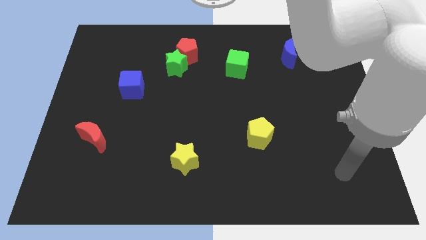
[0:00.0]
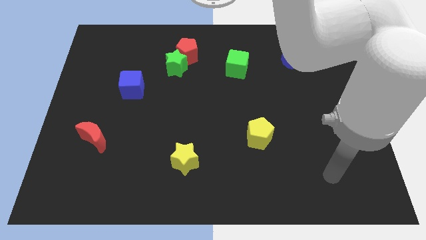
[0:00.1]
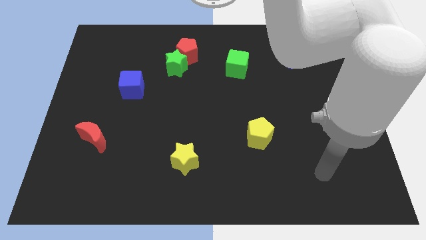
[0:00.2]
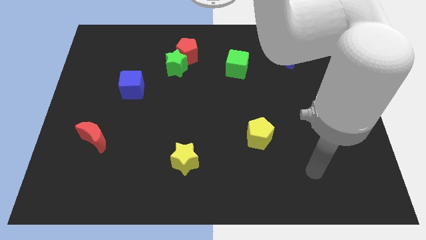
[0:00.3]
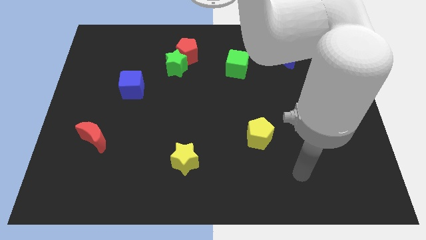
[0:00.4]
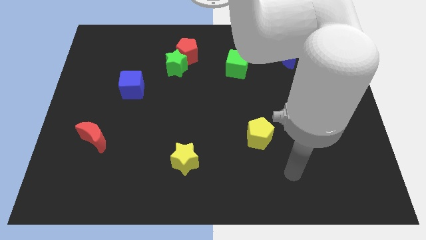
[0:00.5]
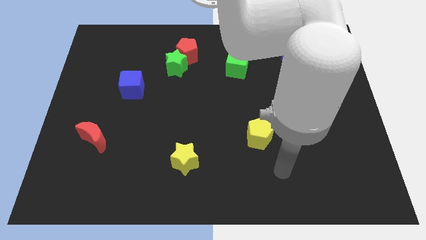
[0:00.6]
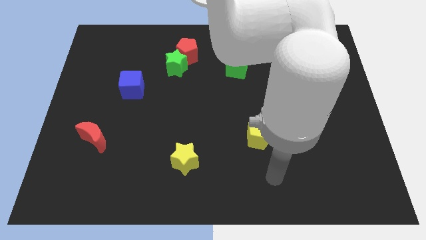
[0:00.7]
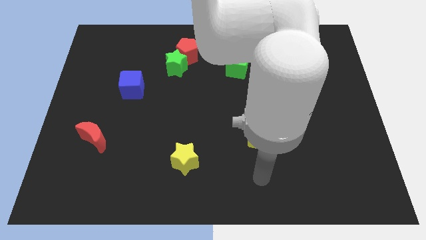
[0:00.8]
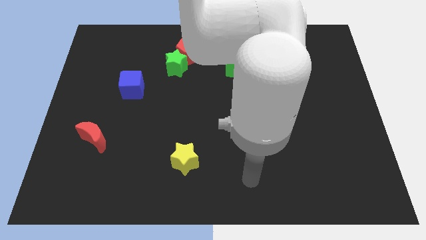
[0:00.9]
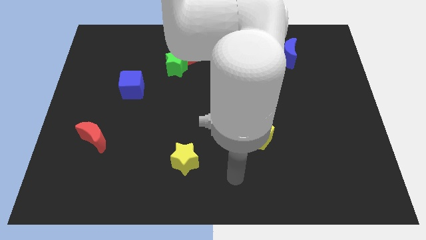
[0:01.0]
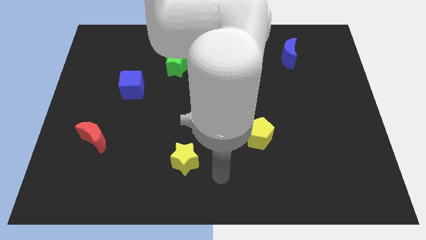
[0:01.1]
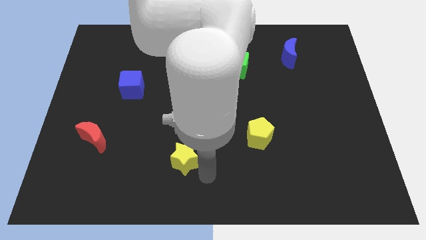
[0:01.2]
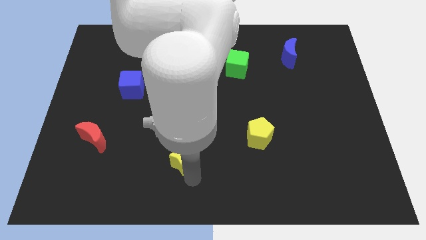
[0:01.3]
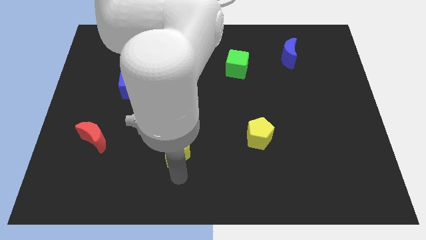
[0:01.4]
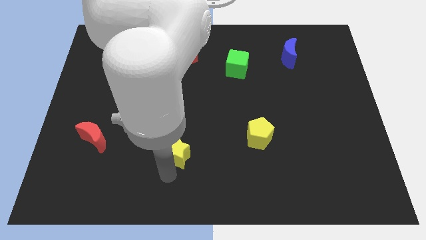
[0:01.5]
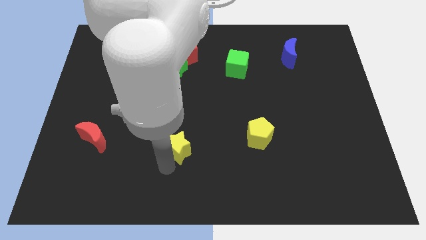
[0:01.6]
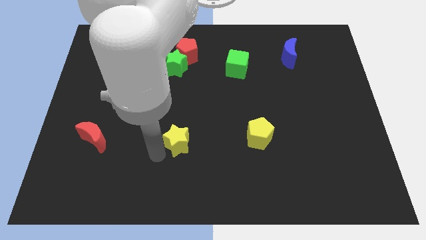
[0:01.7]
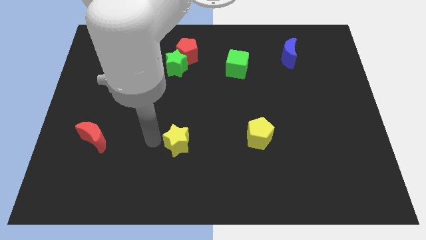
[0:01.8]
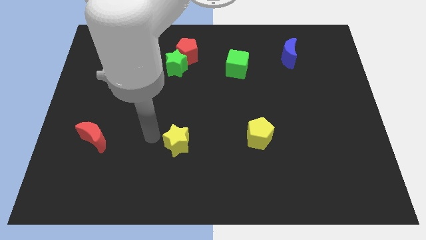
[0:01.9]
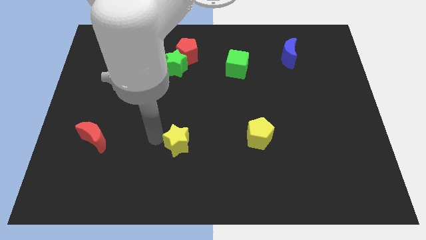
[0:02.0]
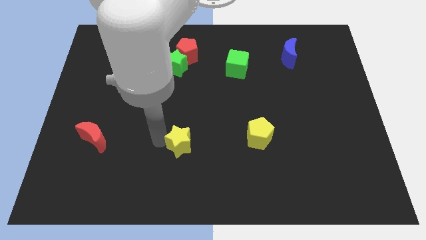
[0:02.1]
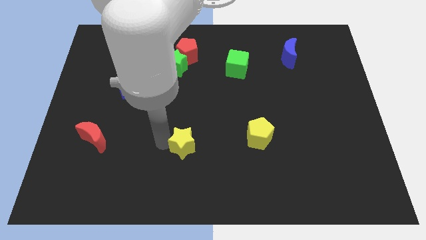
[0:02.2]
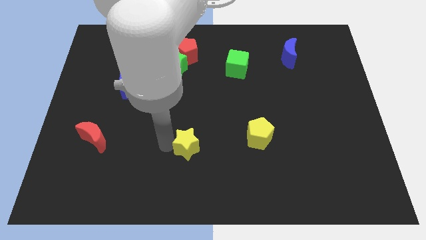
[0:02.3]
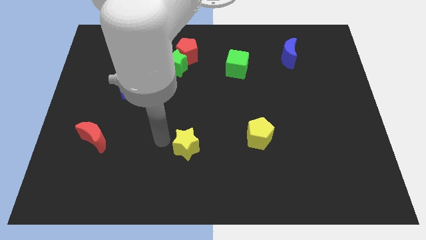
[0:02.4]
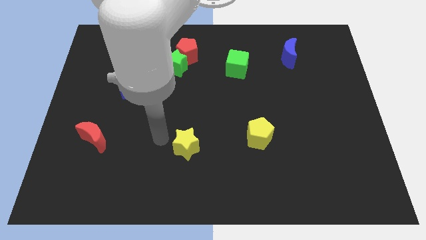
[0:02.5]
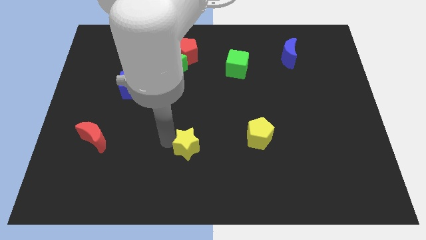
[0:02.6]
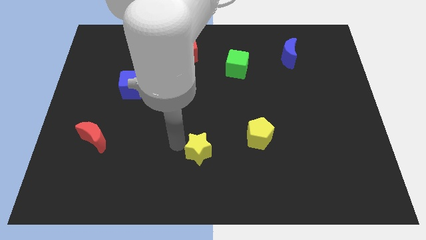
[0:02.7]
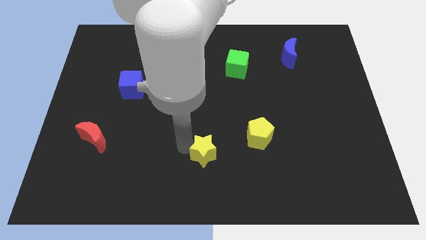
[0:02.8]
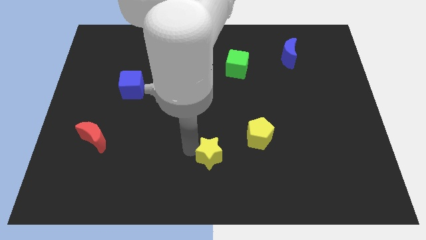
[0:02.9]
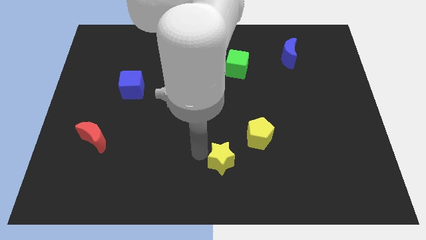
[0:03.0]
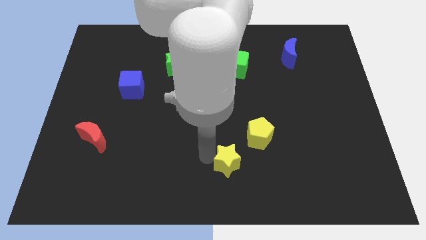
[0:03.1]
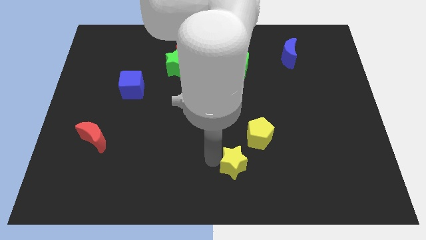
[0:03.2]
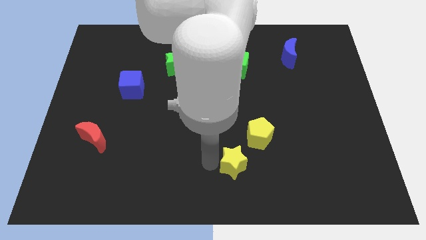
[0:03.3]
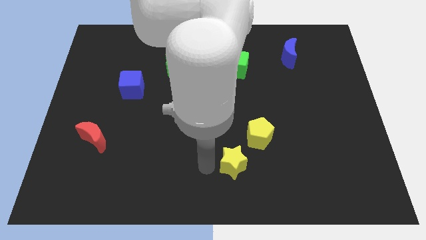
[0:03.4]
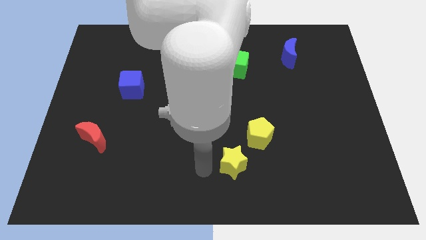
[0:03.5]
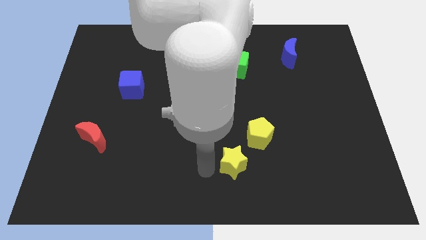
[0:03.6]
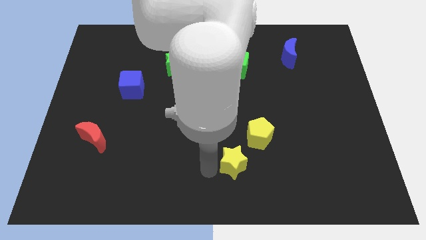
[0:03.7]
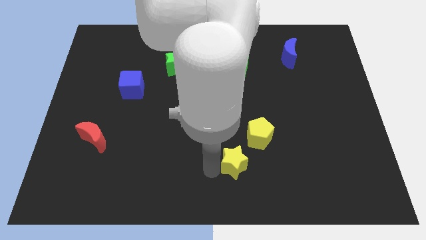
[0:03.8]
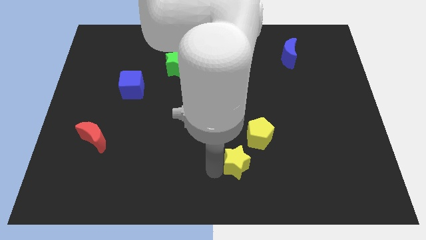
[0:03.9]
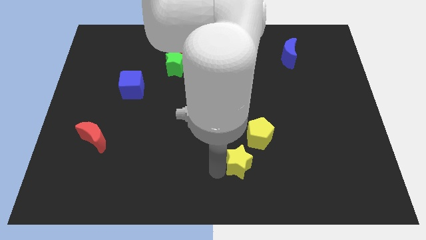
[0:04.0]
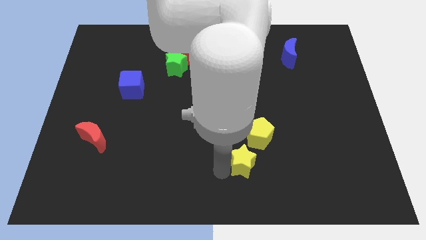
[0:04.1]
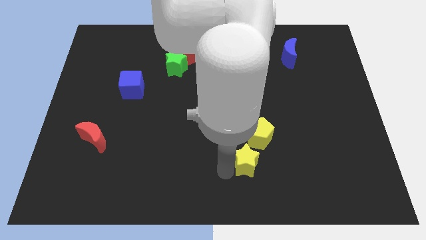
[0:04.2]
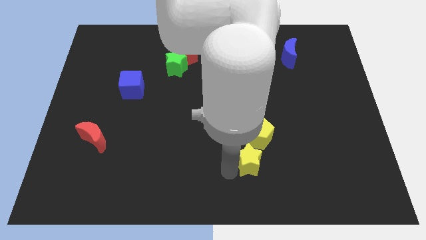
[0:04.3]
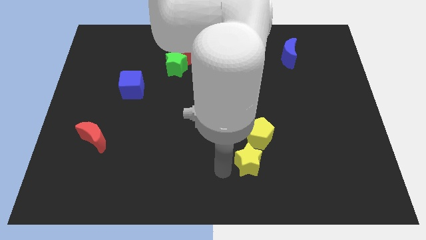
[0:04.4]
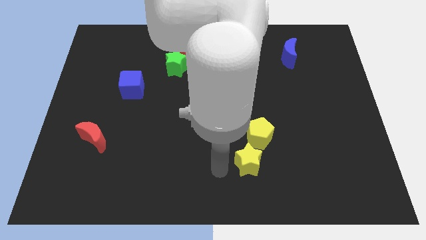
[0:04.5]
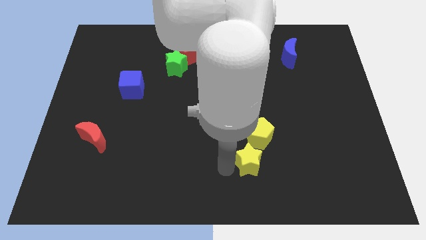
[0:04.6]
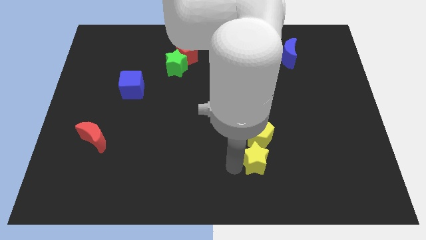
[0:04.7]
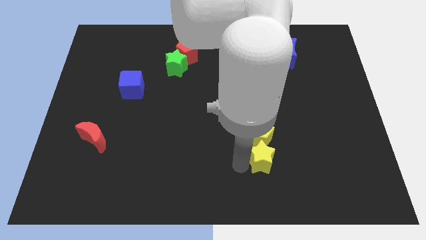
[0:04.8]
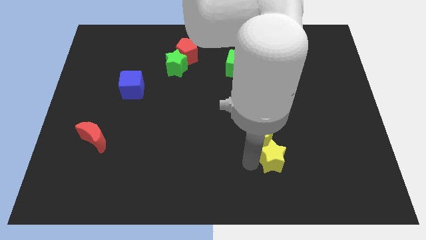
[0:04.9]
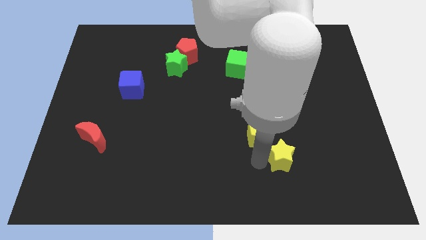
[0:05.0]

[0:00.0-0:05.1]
slide the yellow star right

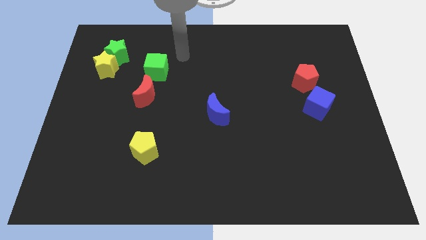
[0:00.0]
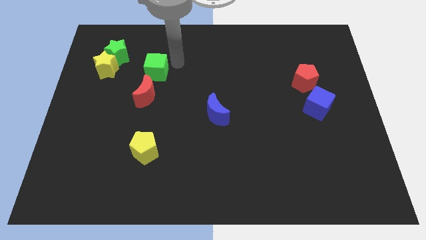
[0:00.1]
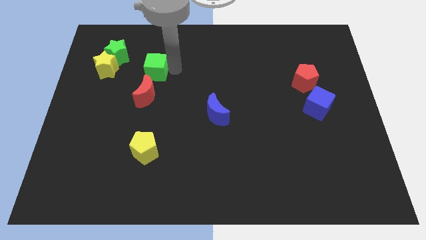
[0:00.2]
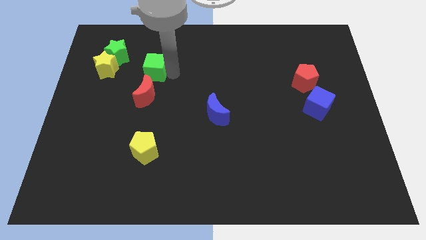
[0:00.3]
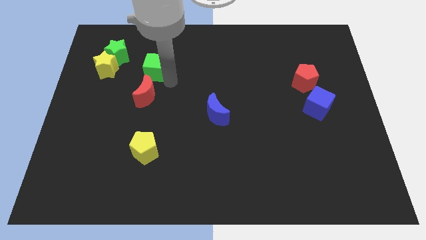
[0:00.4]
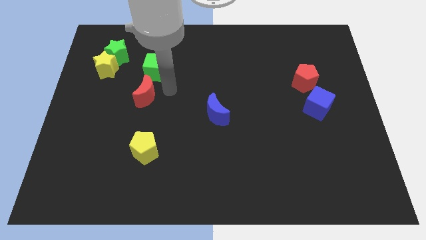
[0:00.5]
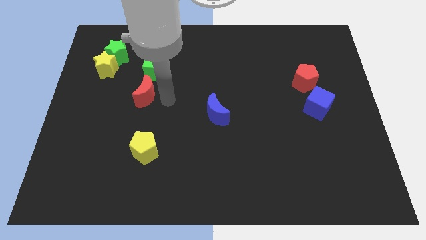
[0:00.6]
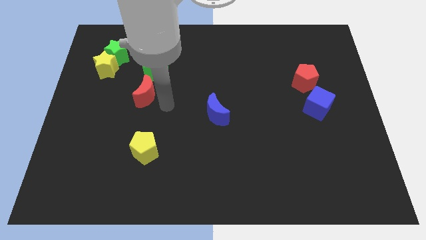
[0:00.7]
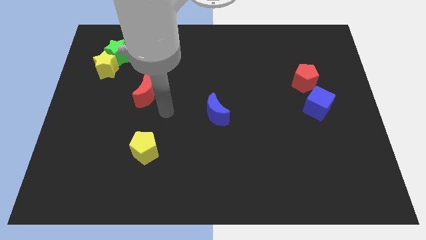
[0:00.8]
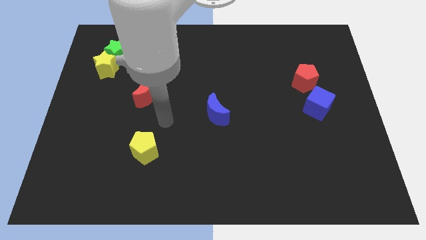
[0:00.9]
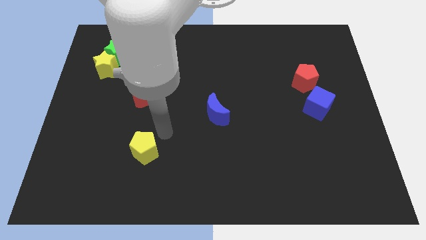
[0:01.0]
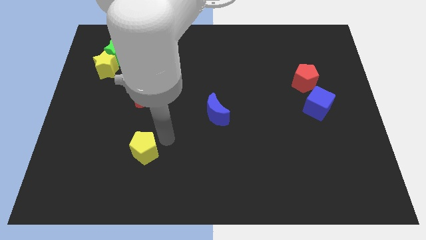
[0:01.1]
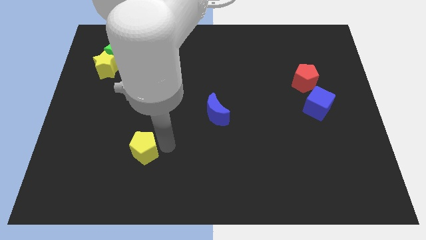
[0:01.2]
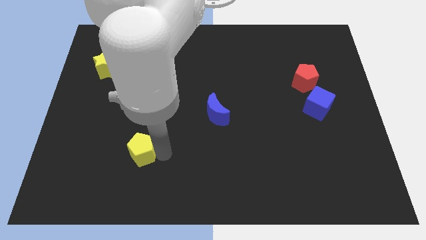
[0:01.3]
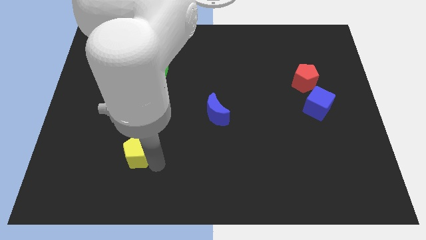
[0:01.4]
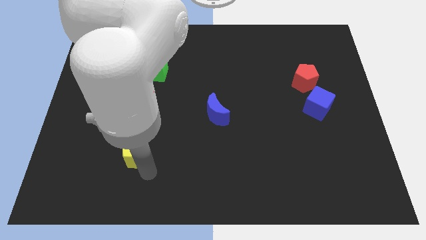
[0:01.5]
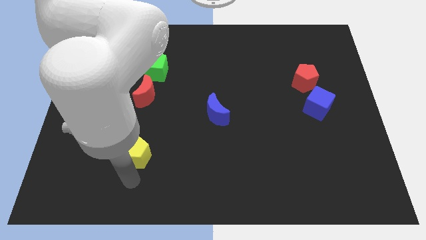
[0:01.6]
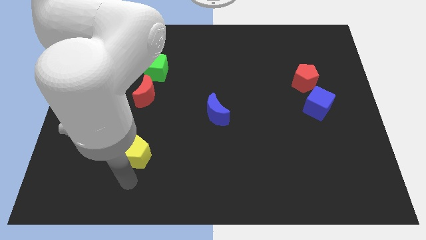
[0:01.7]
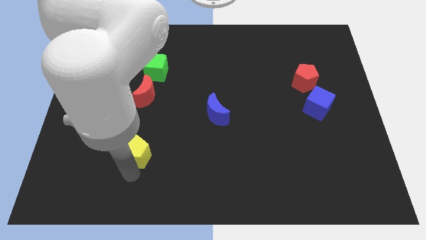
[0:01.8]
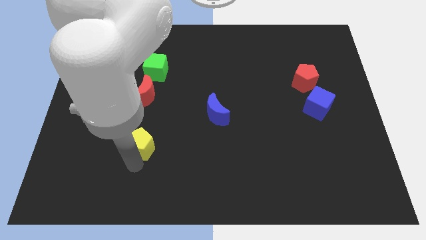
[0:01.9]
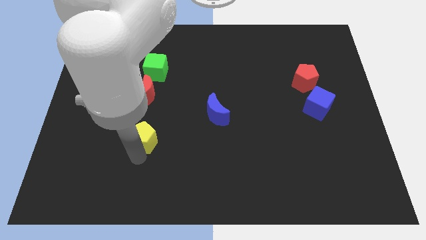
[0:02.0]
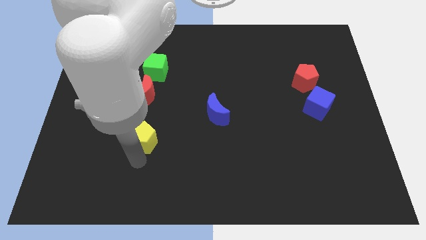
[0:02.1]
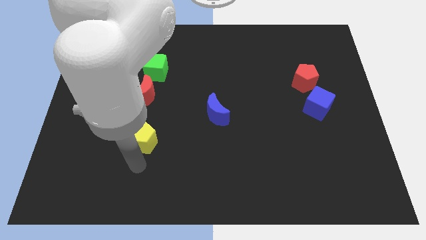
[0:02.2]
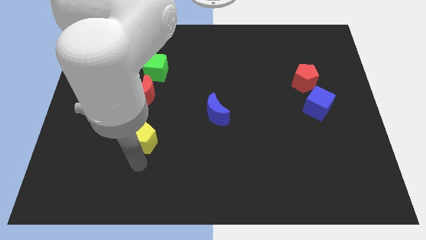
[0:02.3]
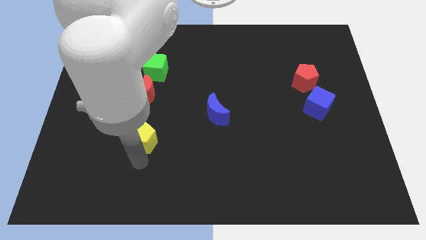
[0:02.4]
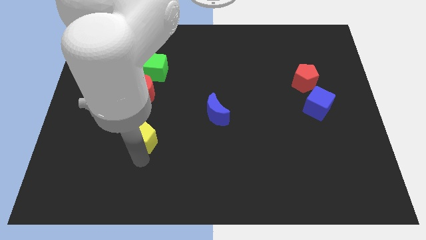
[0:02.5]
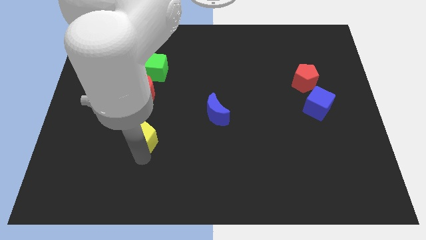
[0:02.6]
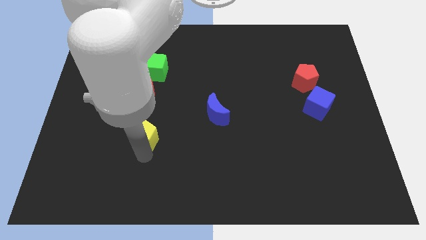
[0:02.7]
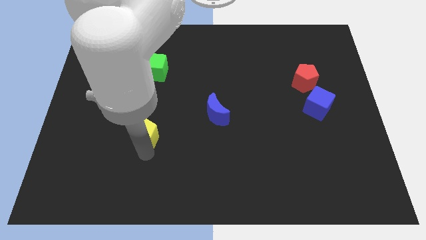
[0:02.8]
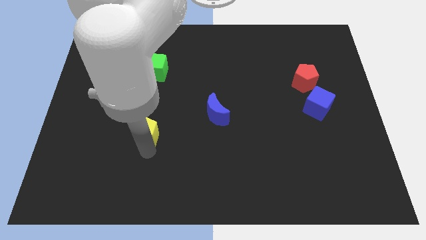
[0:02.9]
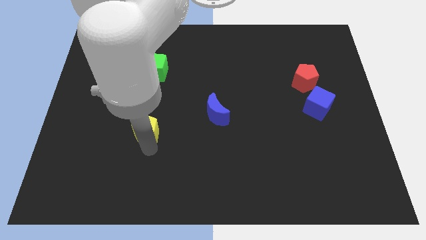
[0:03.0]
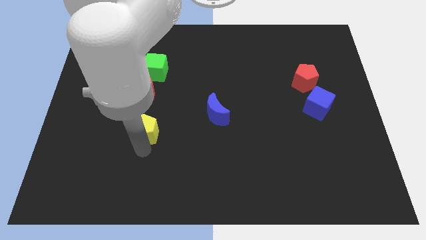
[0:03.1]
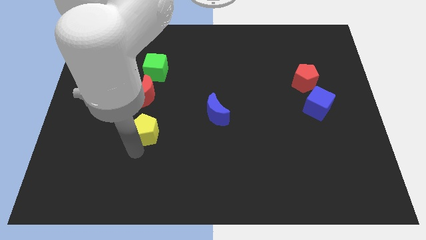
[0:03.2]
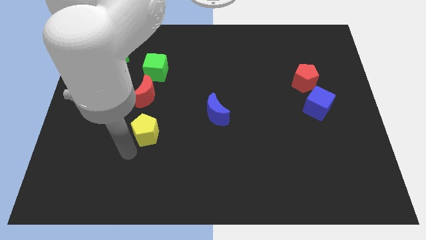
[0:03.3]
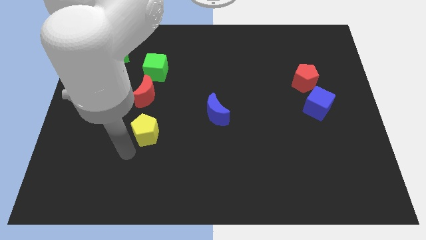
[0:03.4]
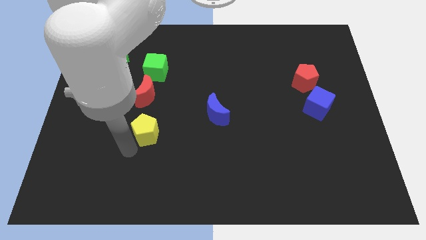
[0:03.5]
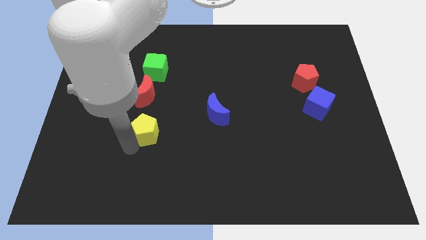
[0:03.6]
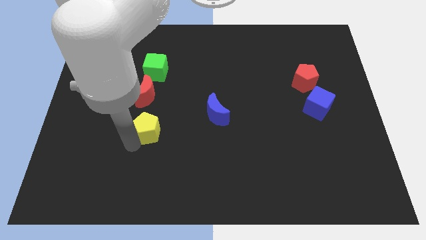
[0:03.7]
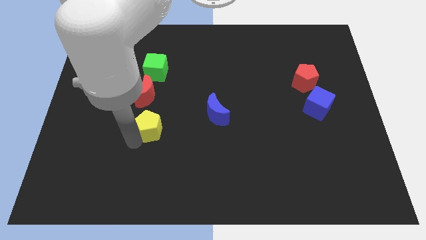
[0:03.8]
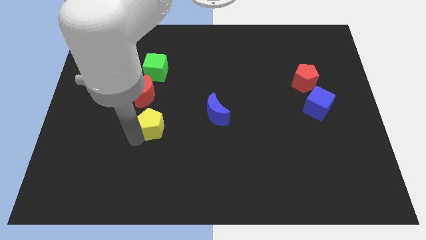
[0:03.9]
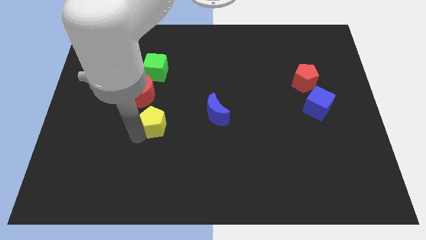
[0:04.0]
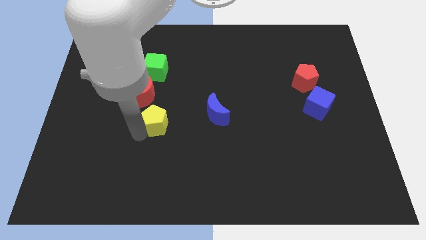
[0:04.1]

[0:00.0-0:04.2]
move the yellow pentagon upwards somewhat
